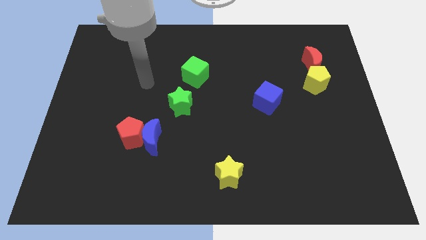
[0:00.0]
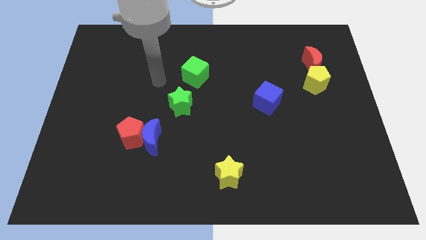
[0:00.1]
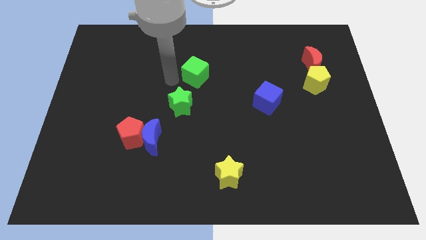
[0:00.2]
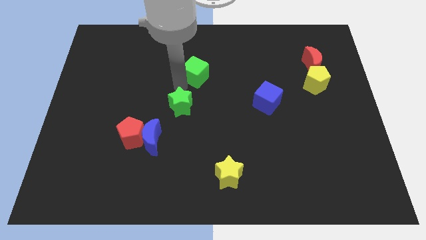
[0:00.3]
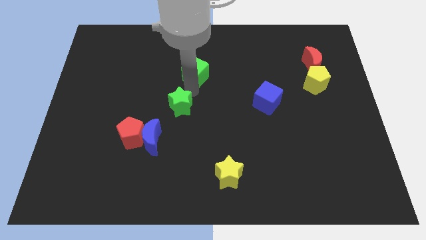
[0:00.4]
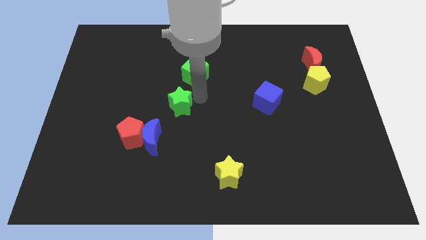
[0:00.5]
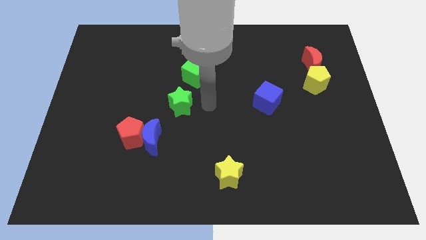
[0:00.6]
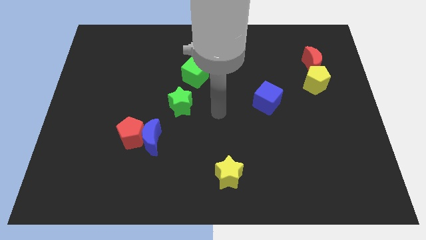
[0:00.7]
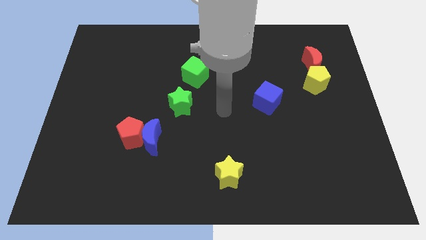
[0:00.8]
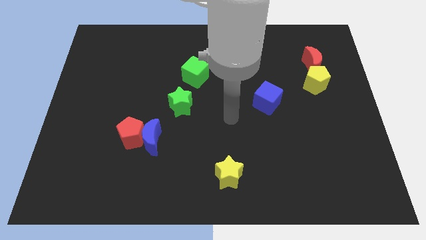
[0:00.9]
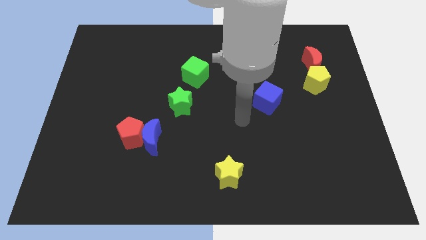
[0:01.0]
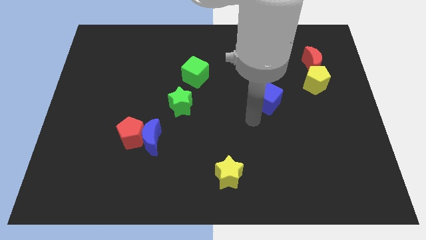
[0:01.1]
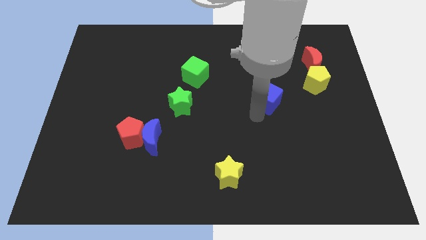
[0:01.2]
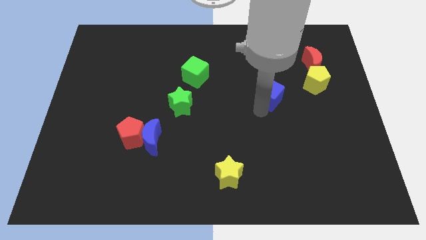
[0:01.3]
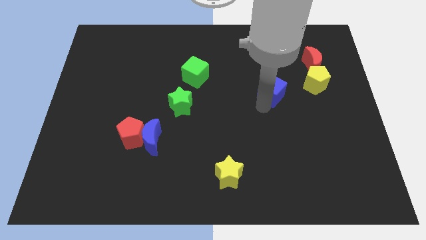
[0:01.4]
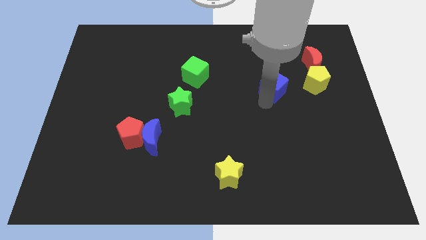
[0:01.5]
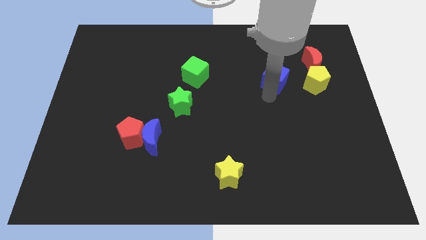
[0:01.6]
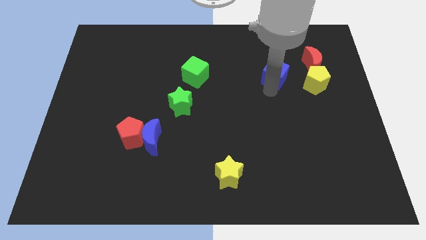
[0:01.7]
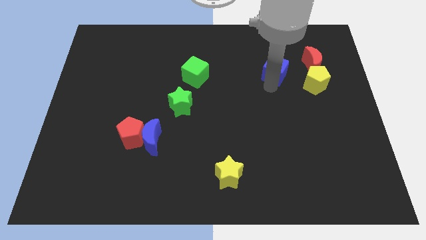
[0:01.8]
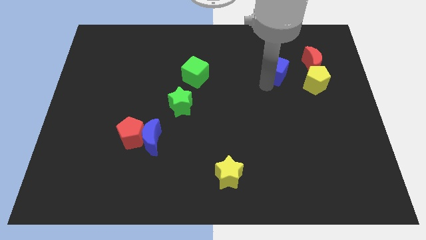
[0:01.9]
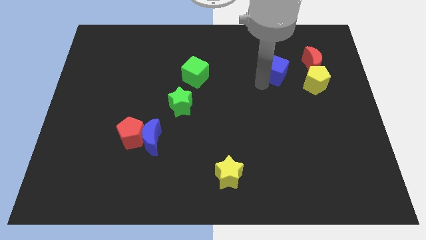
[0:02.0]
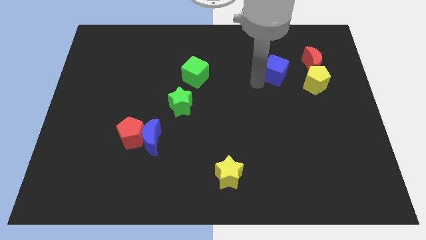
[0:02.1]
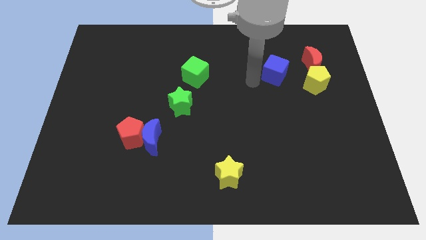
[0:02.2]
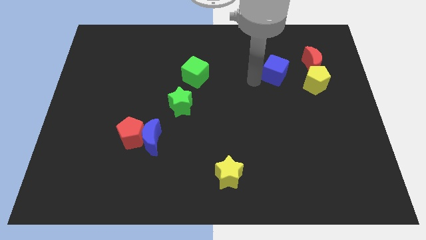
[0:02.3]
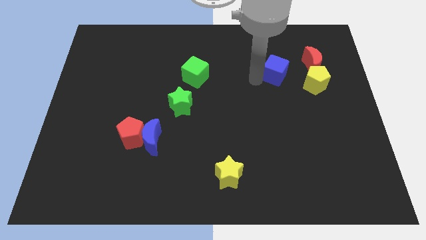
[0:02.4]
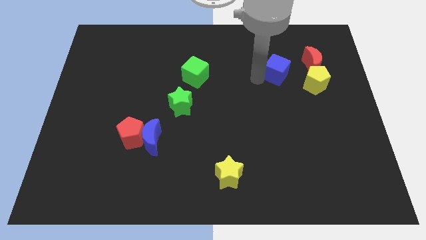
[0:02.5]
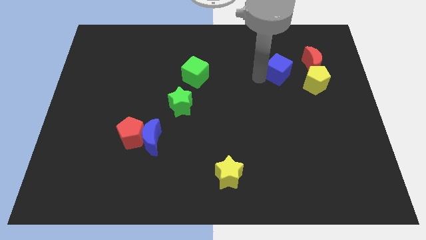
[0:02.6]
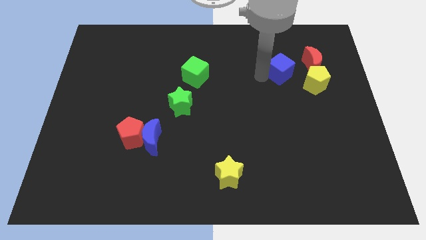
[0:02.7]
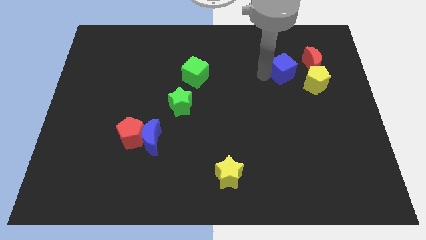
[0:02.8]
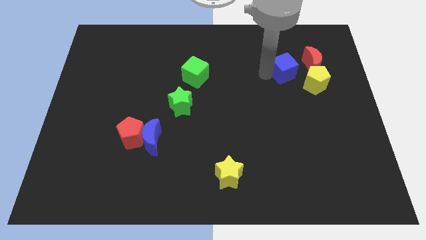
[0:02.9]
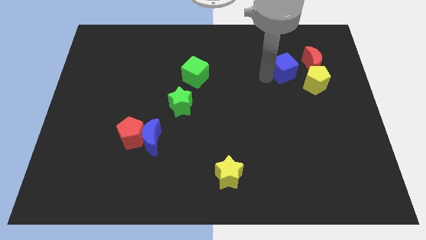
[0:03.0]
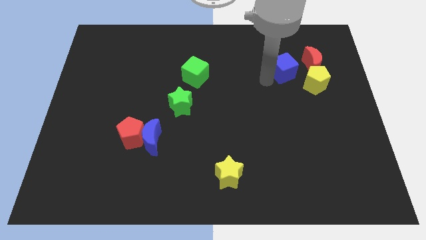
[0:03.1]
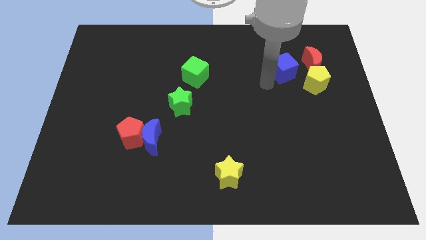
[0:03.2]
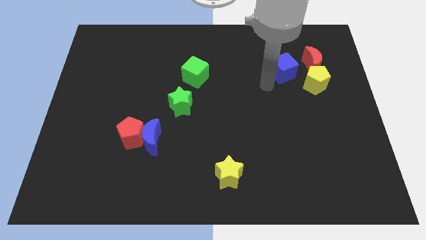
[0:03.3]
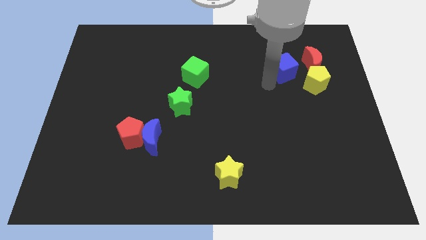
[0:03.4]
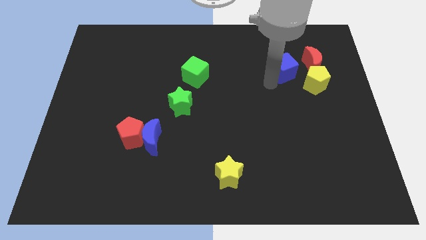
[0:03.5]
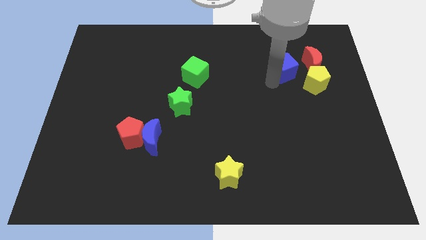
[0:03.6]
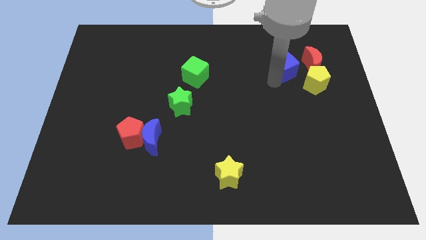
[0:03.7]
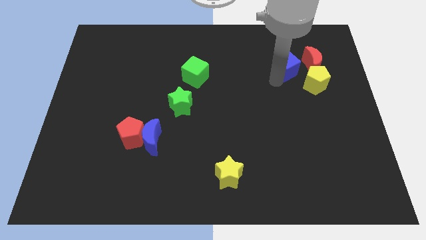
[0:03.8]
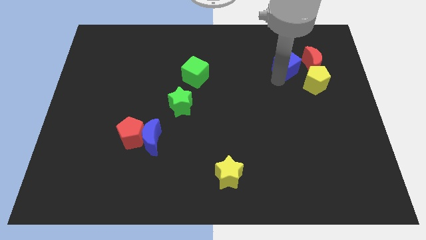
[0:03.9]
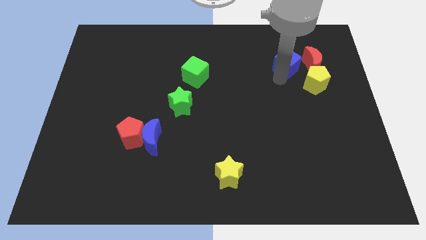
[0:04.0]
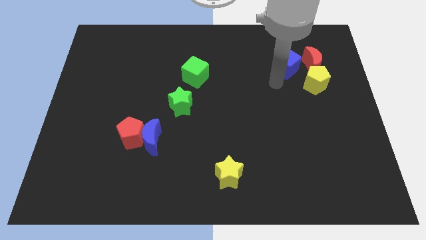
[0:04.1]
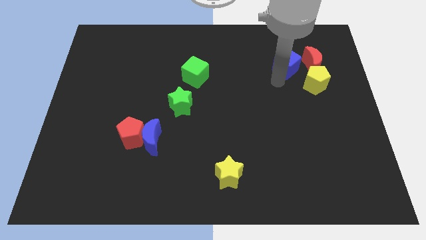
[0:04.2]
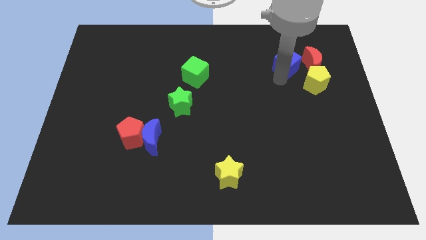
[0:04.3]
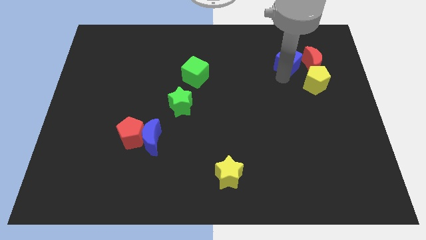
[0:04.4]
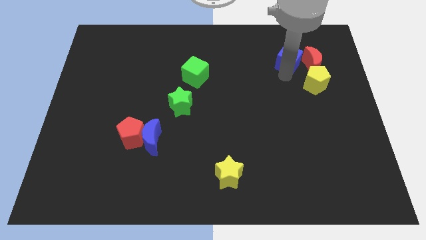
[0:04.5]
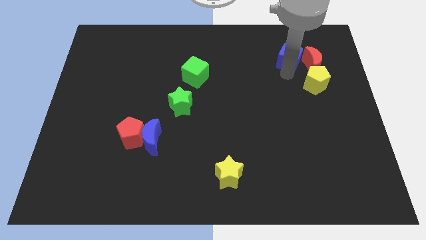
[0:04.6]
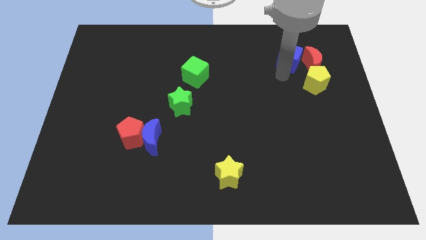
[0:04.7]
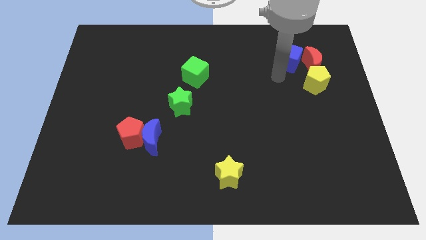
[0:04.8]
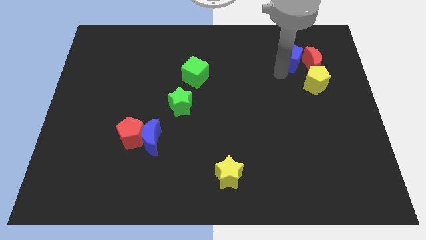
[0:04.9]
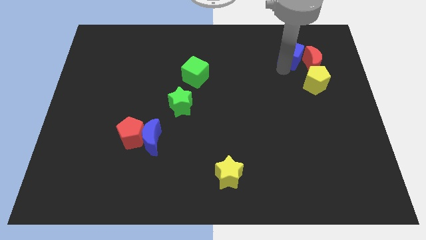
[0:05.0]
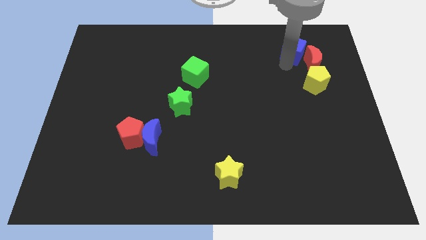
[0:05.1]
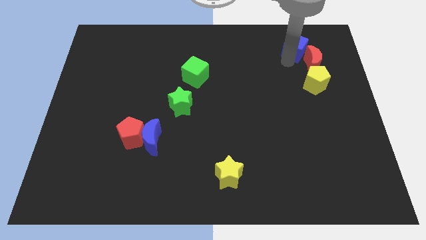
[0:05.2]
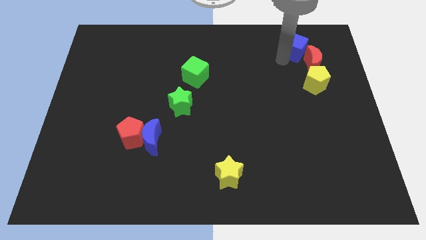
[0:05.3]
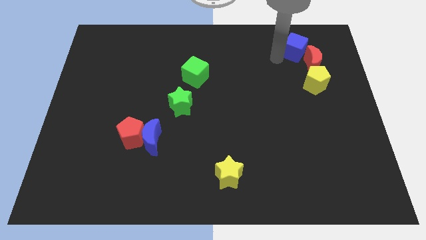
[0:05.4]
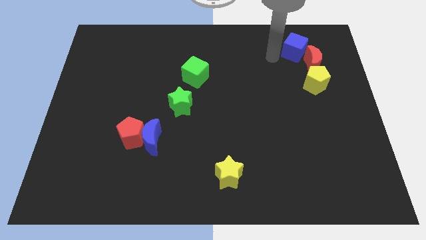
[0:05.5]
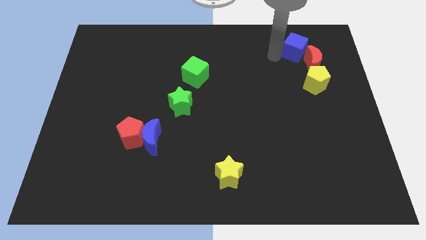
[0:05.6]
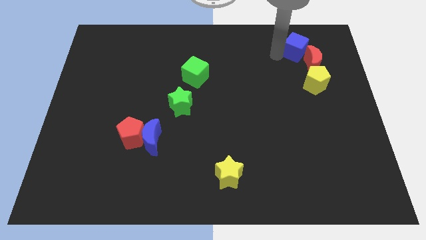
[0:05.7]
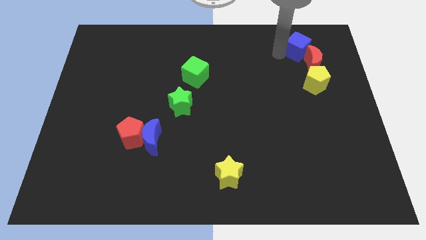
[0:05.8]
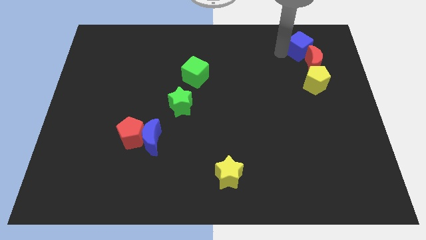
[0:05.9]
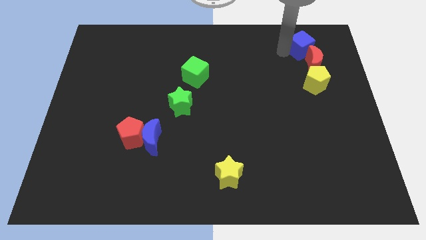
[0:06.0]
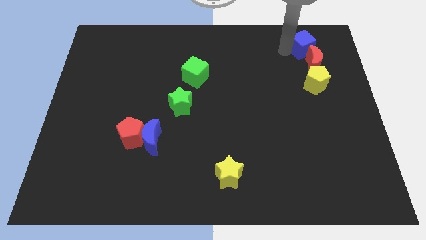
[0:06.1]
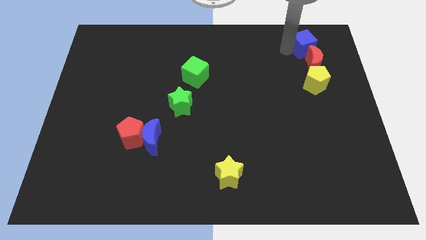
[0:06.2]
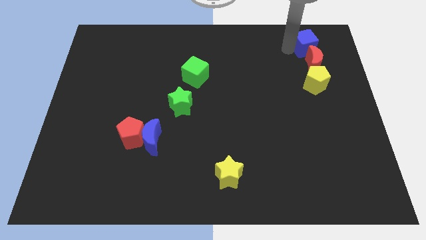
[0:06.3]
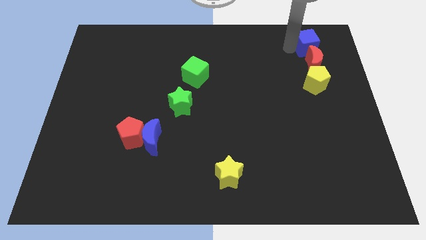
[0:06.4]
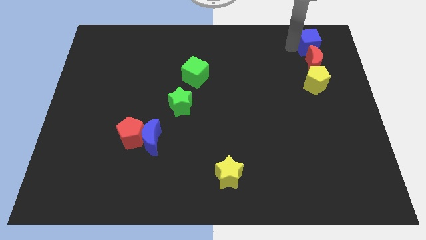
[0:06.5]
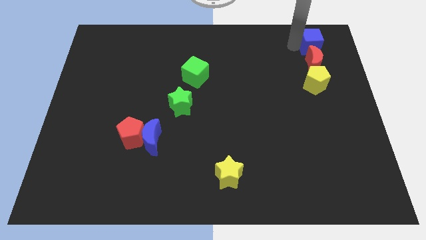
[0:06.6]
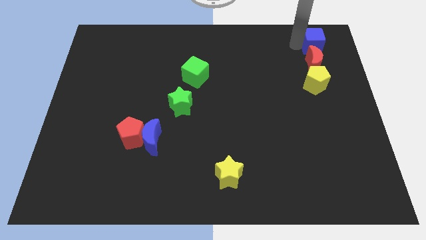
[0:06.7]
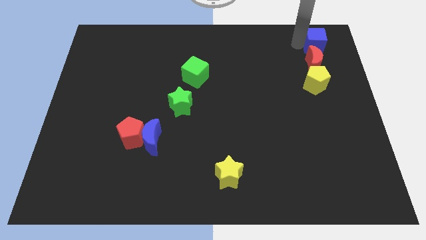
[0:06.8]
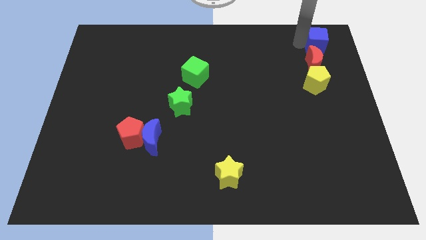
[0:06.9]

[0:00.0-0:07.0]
move the blue cube to the upper right corner
